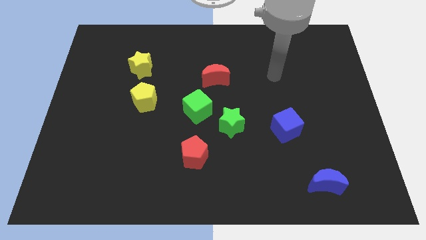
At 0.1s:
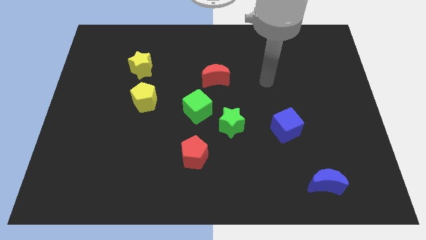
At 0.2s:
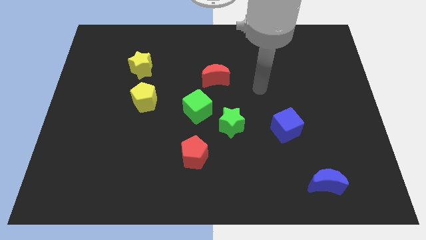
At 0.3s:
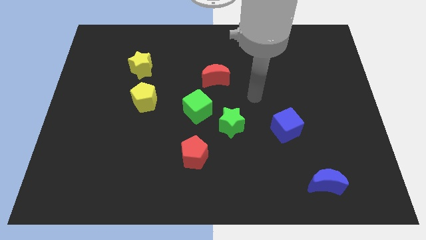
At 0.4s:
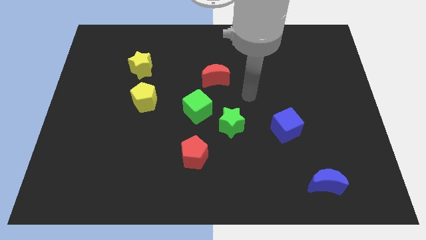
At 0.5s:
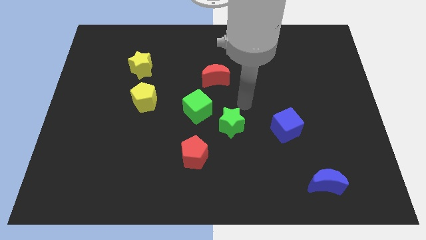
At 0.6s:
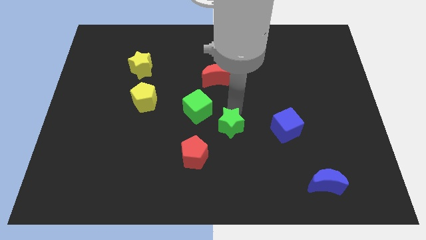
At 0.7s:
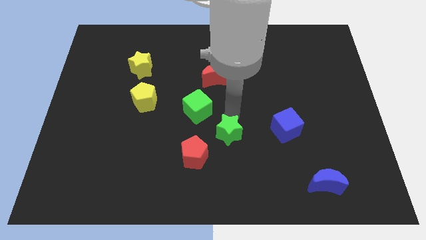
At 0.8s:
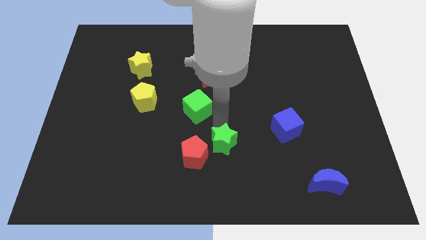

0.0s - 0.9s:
pull the green cube apart from the green star

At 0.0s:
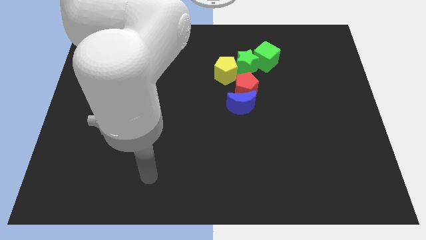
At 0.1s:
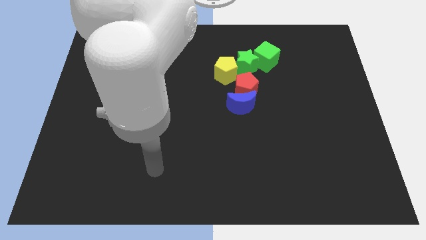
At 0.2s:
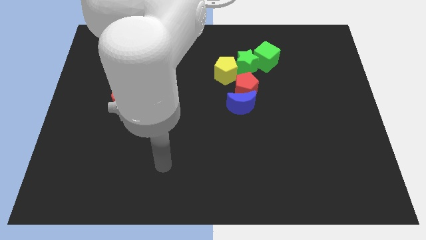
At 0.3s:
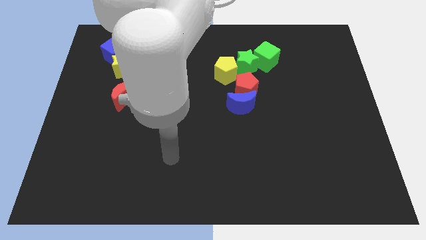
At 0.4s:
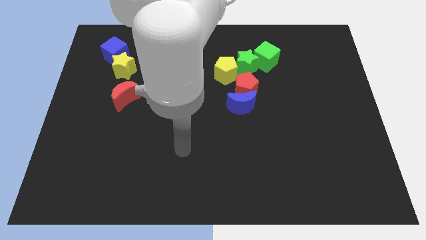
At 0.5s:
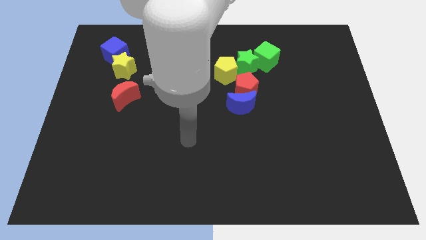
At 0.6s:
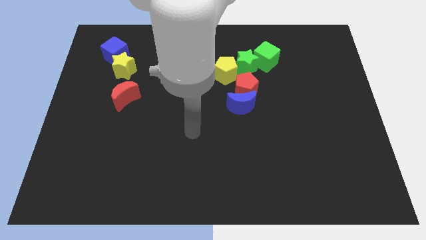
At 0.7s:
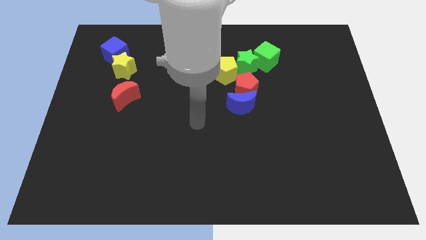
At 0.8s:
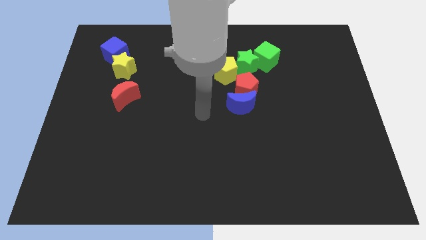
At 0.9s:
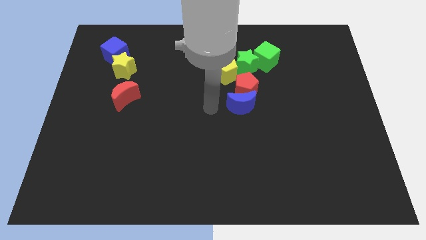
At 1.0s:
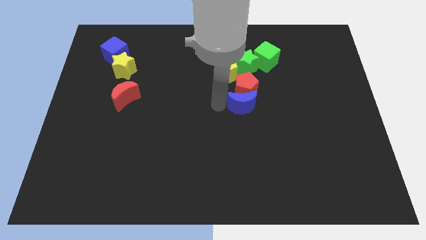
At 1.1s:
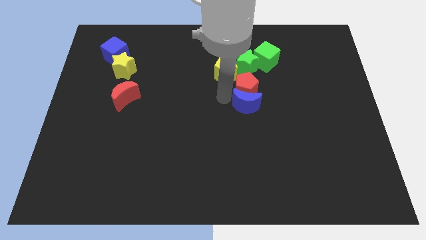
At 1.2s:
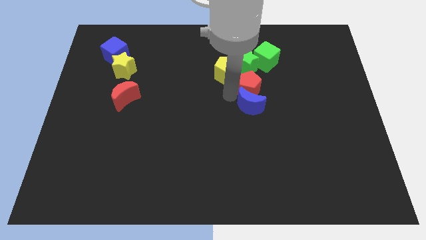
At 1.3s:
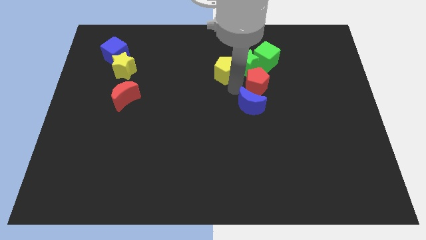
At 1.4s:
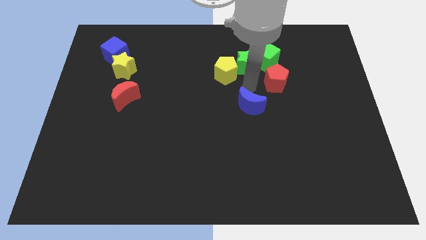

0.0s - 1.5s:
pull the blue moon apart from the red pentagon

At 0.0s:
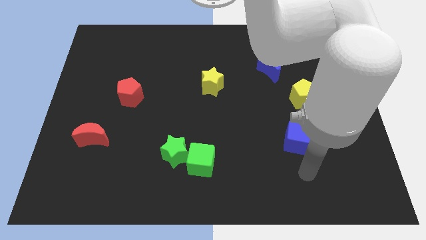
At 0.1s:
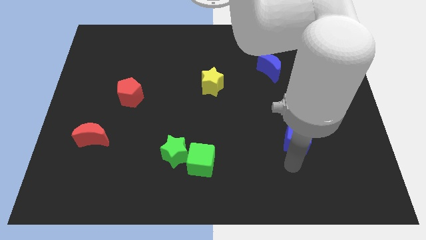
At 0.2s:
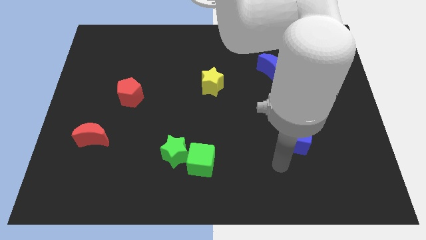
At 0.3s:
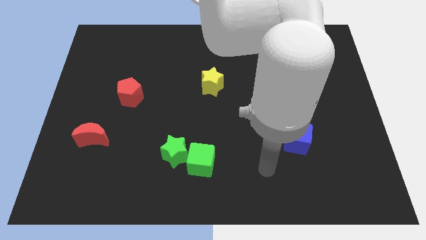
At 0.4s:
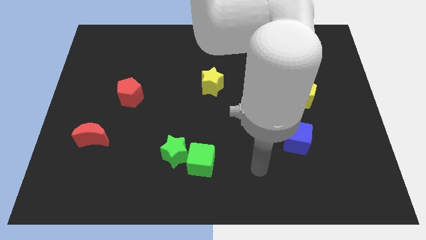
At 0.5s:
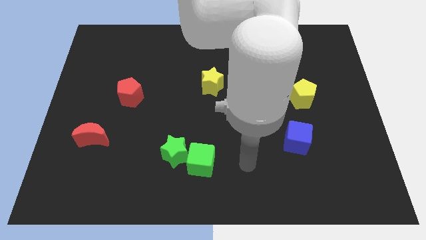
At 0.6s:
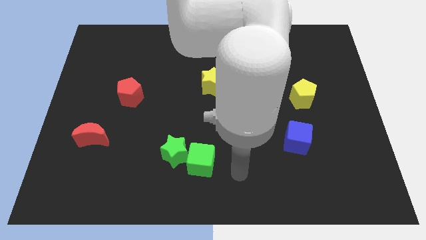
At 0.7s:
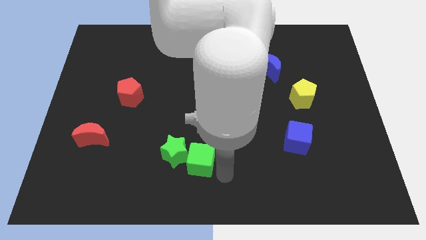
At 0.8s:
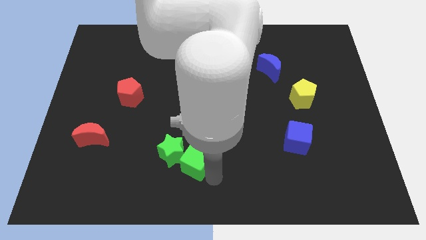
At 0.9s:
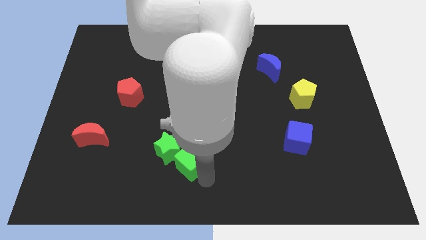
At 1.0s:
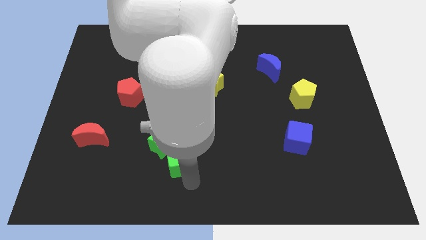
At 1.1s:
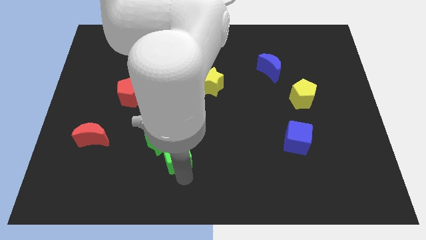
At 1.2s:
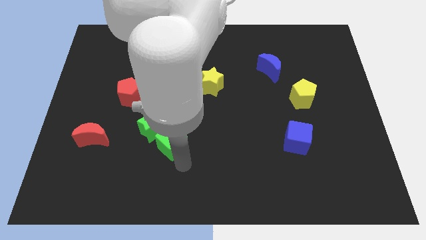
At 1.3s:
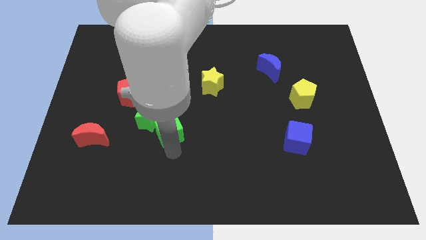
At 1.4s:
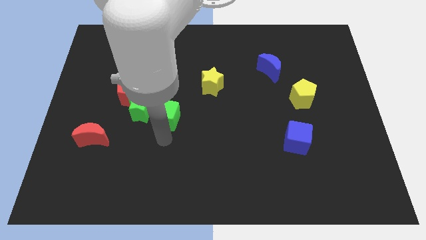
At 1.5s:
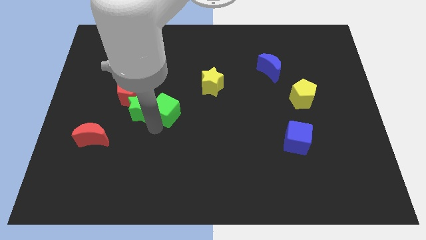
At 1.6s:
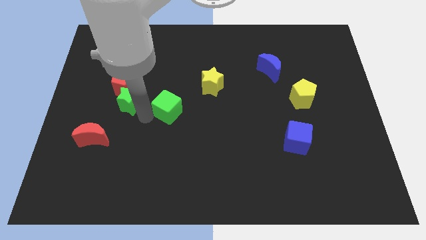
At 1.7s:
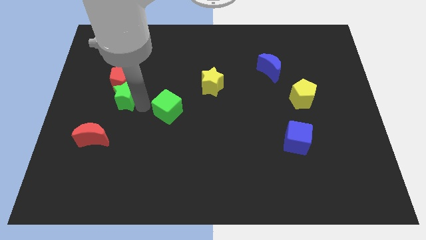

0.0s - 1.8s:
move the green cube away from the green star

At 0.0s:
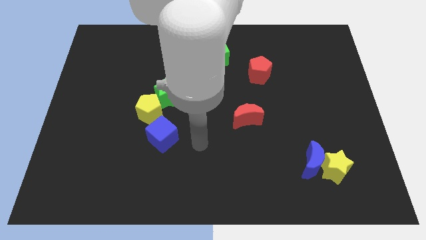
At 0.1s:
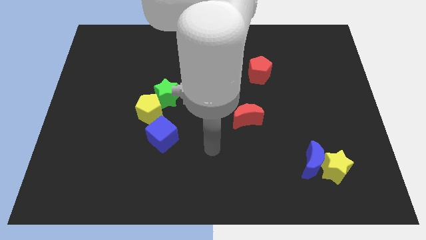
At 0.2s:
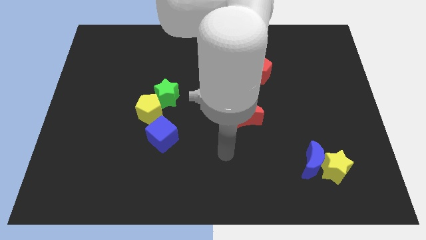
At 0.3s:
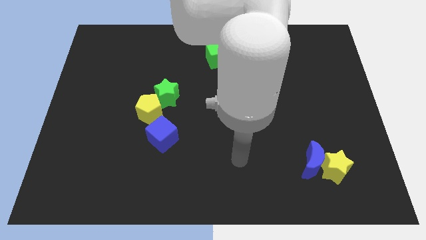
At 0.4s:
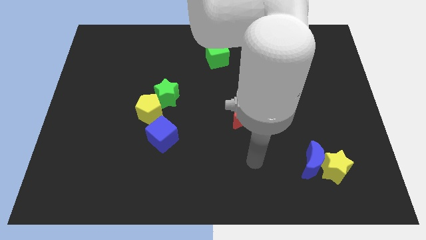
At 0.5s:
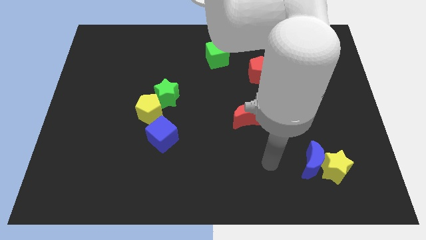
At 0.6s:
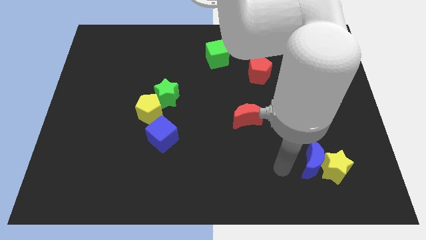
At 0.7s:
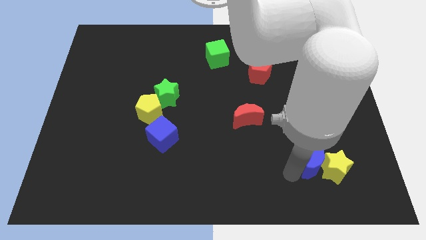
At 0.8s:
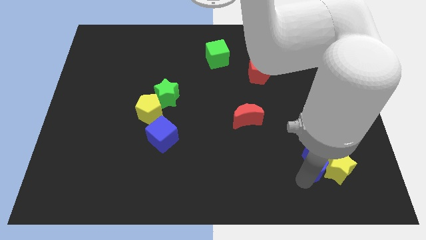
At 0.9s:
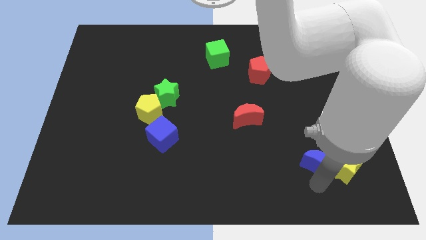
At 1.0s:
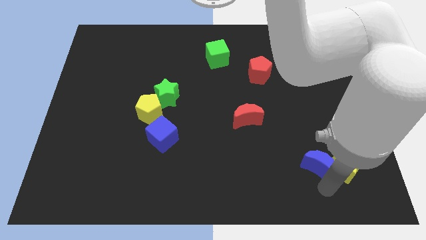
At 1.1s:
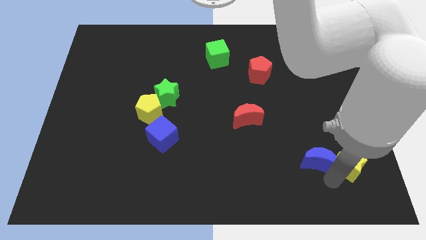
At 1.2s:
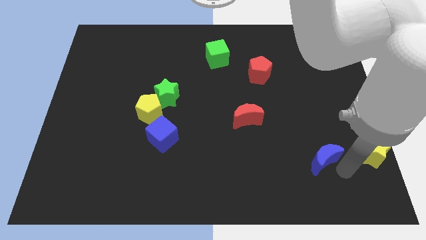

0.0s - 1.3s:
pull the blue moon apart from the yellow star

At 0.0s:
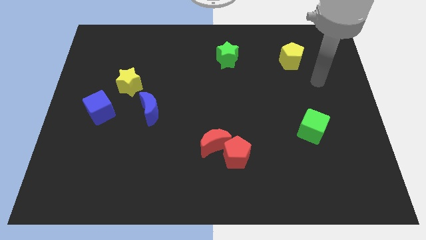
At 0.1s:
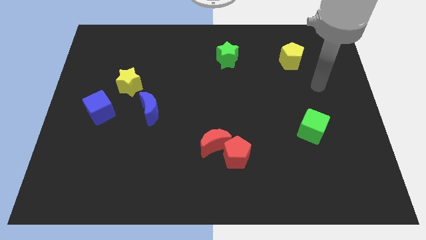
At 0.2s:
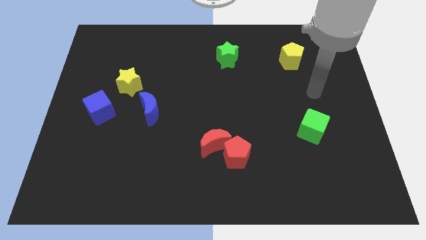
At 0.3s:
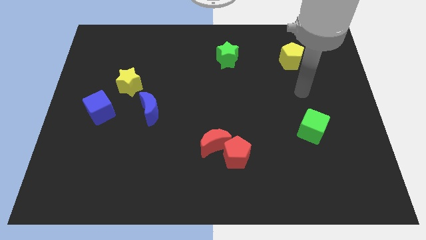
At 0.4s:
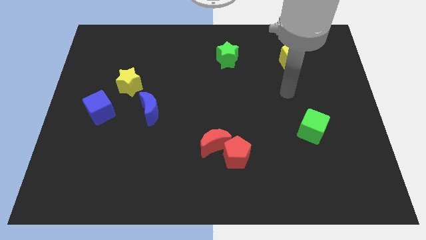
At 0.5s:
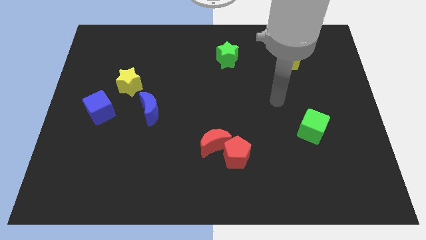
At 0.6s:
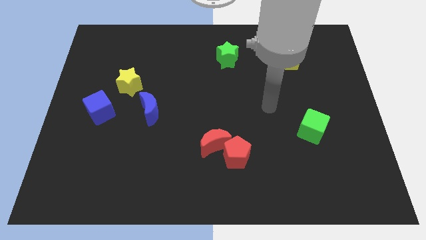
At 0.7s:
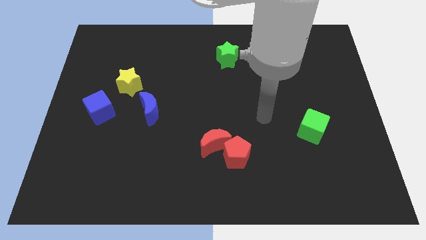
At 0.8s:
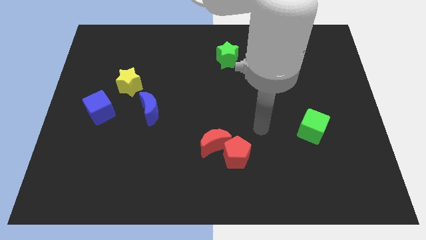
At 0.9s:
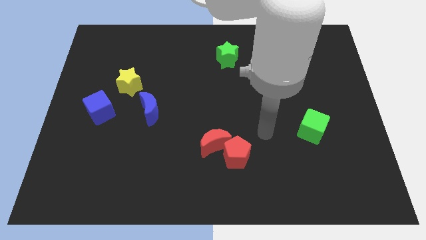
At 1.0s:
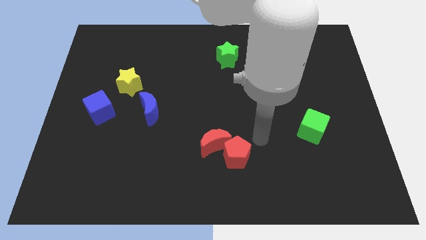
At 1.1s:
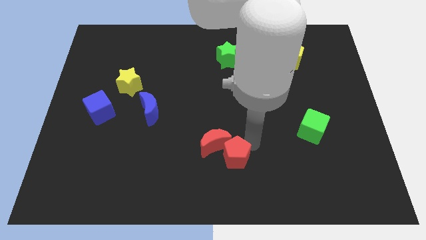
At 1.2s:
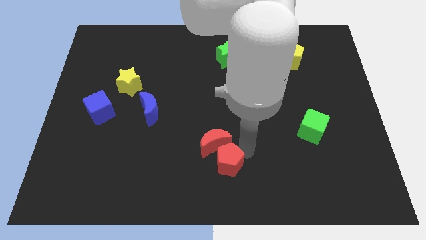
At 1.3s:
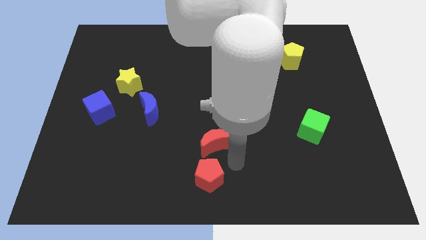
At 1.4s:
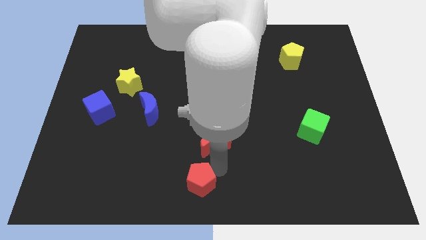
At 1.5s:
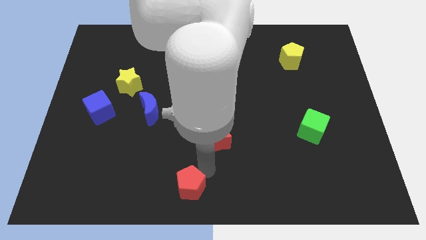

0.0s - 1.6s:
separate the red moon from the red pentagon

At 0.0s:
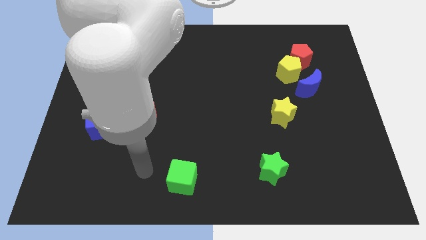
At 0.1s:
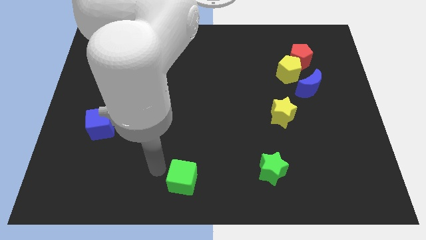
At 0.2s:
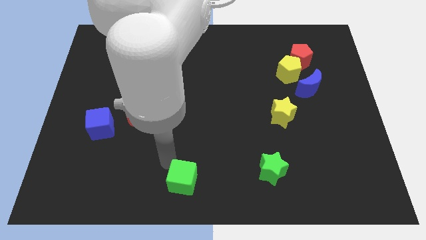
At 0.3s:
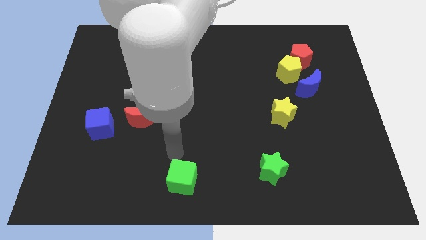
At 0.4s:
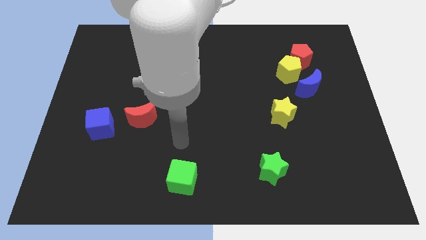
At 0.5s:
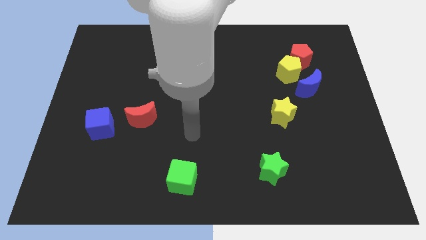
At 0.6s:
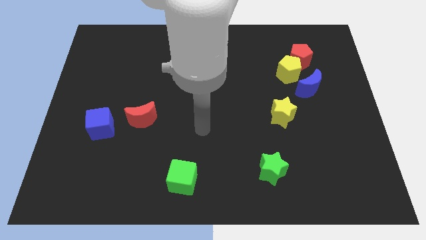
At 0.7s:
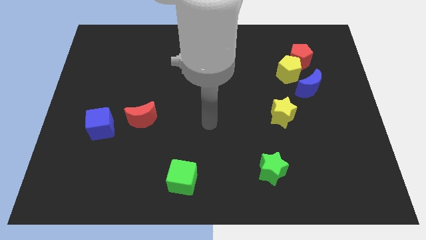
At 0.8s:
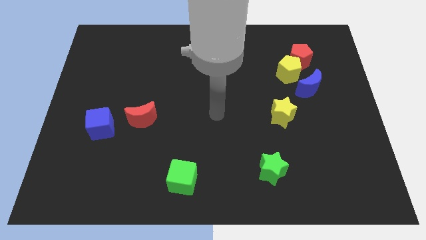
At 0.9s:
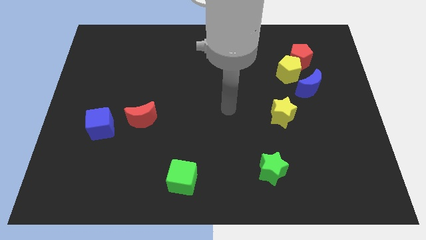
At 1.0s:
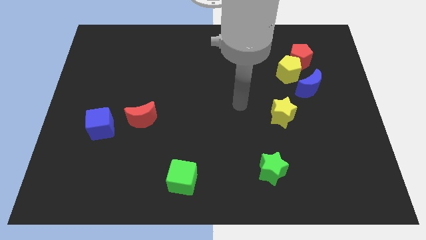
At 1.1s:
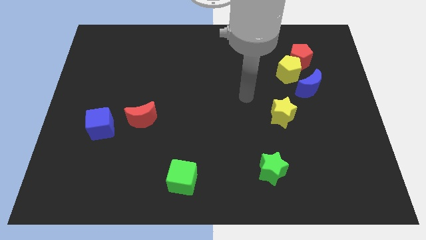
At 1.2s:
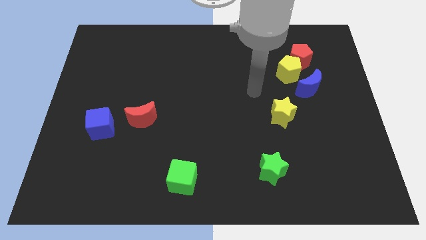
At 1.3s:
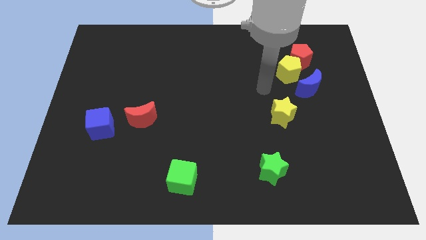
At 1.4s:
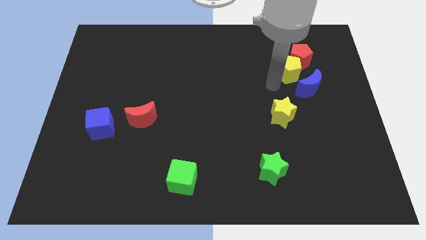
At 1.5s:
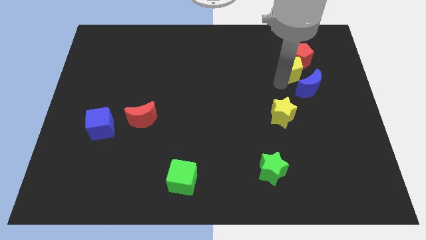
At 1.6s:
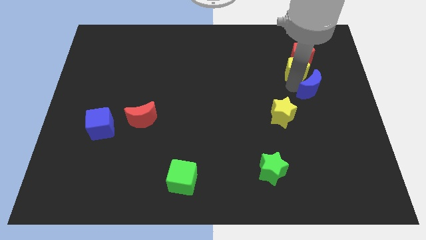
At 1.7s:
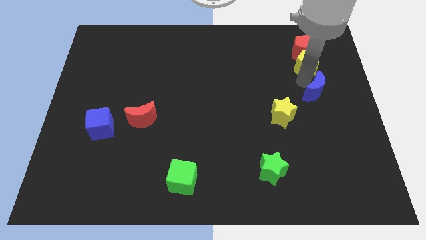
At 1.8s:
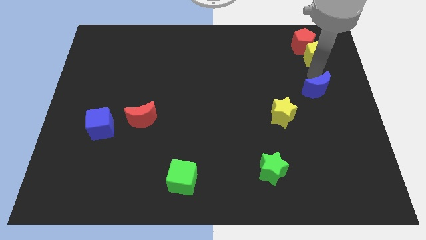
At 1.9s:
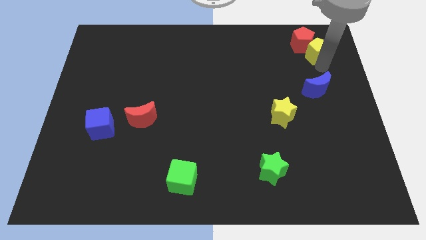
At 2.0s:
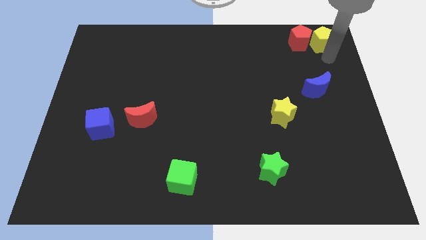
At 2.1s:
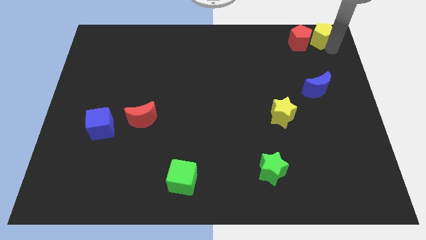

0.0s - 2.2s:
separate the yellow pentagon from the red pentagon and blue moon

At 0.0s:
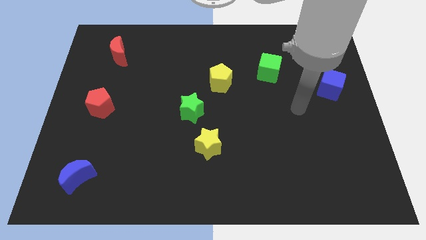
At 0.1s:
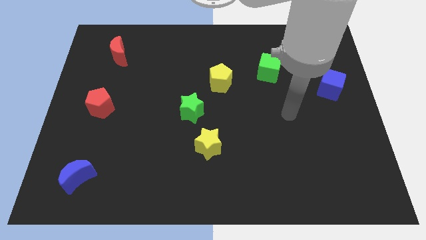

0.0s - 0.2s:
pull the green star apart from the yellow star
